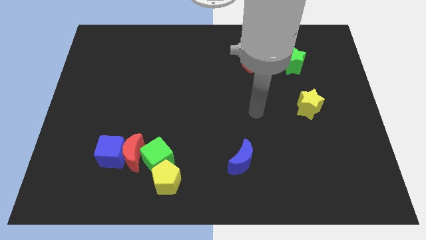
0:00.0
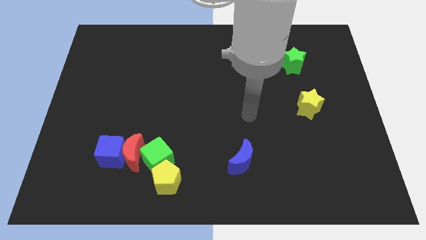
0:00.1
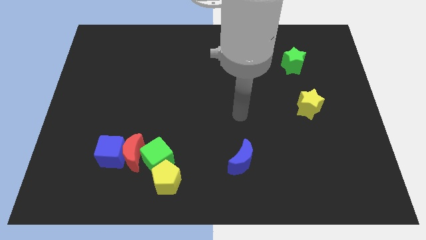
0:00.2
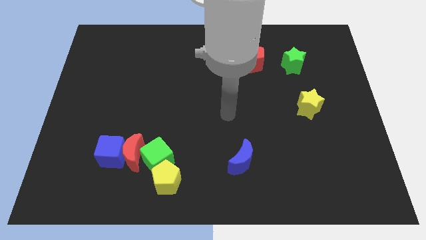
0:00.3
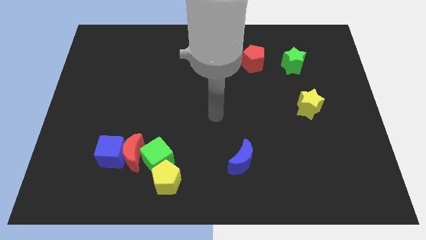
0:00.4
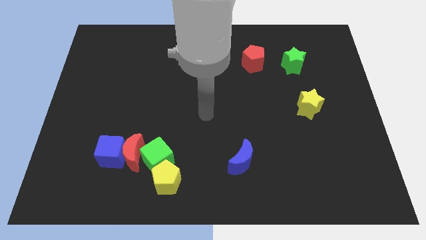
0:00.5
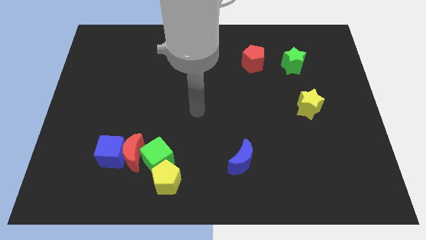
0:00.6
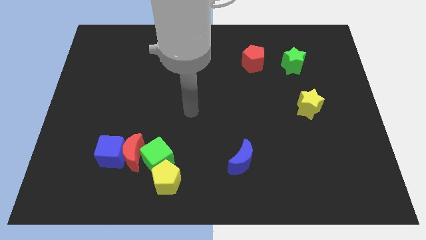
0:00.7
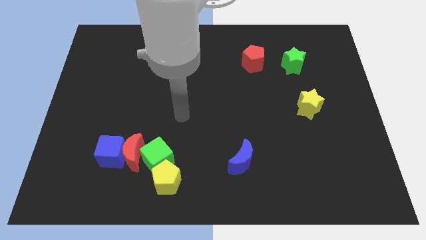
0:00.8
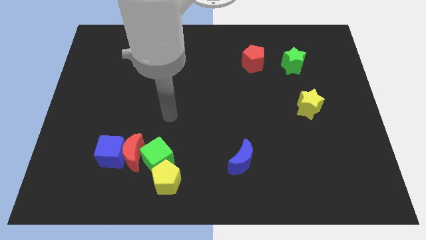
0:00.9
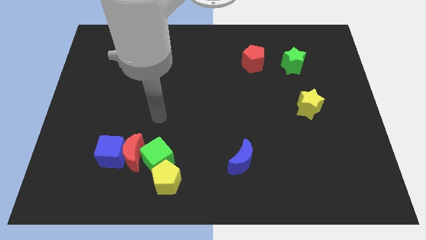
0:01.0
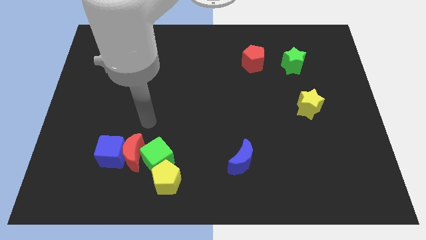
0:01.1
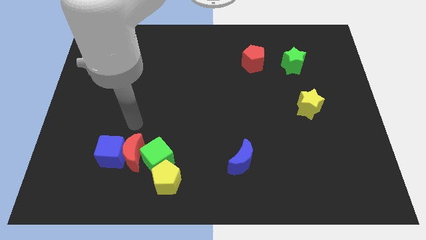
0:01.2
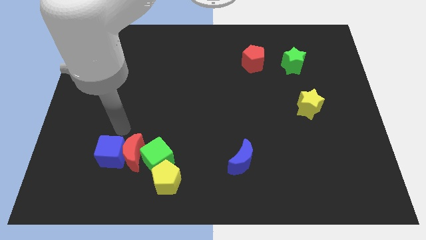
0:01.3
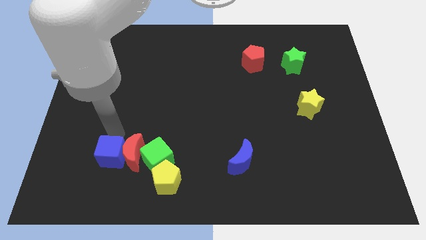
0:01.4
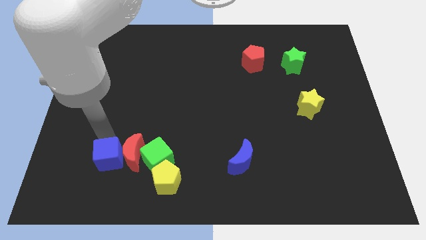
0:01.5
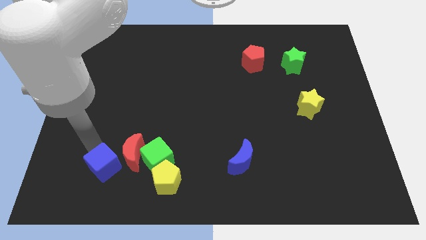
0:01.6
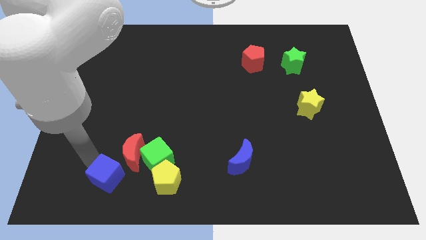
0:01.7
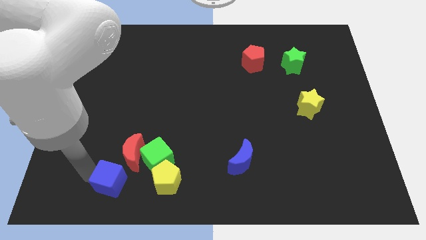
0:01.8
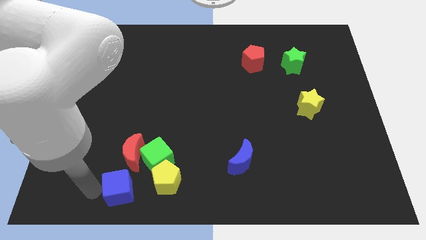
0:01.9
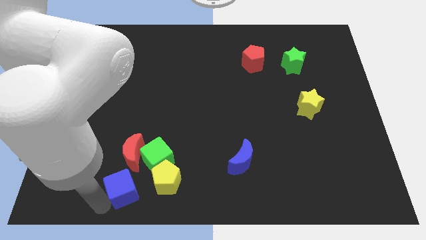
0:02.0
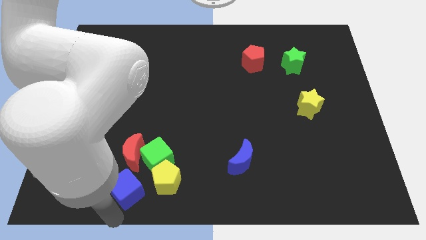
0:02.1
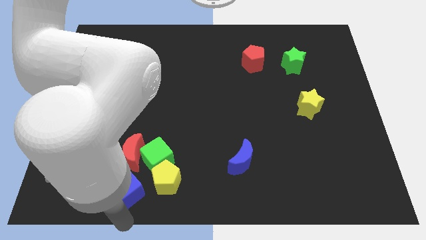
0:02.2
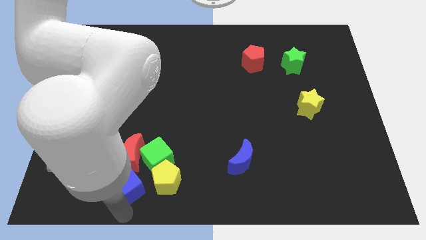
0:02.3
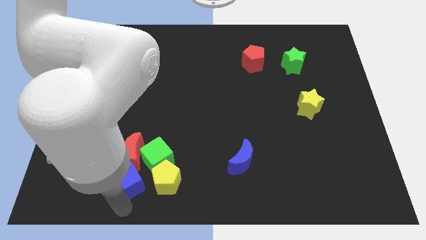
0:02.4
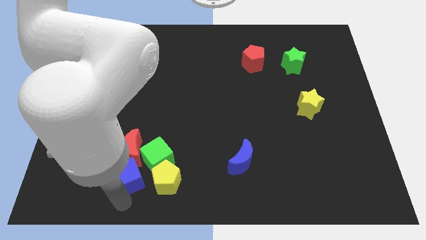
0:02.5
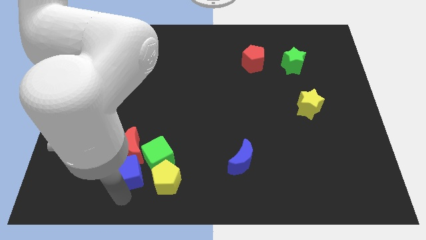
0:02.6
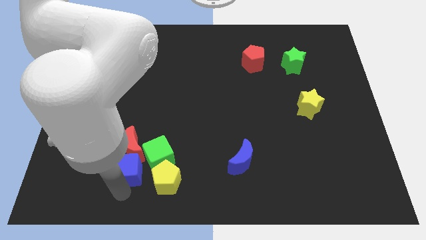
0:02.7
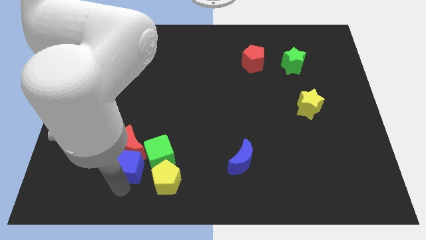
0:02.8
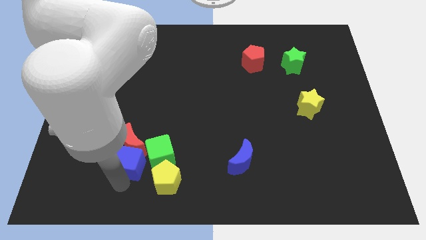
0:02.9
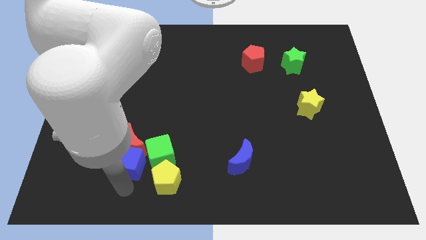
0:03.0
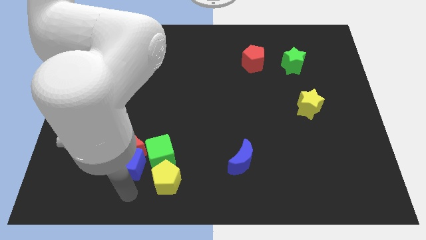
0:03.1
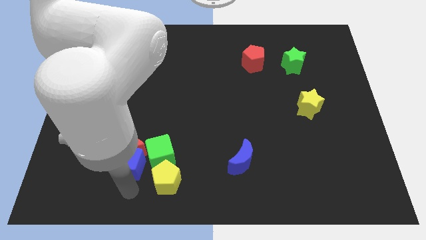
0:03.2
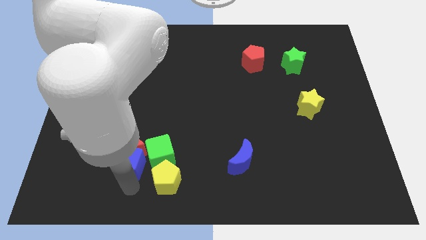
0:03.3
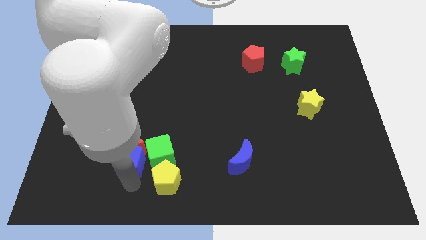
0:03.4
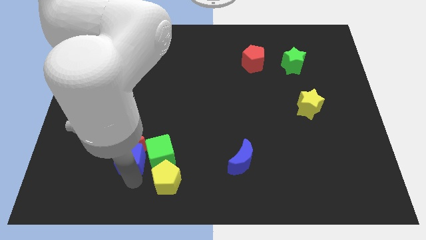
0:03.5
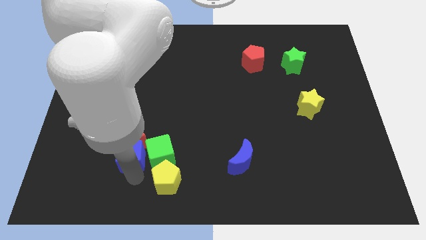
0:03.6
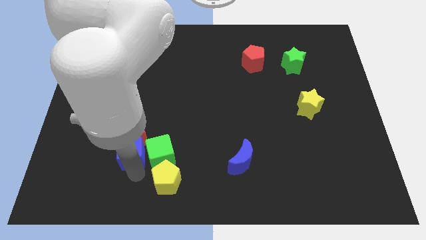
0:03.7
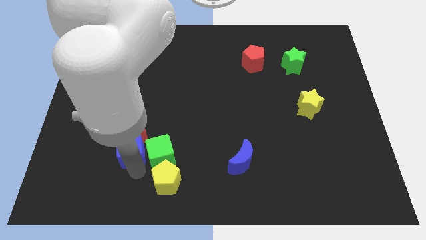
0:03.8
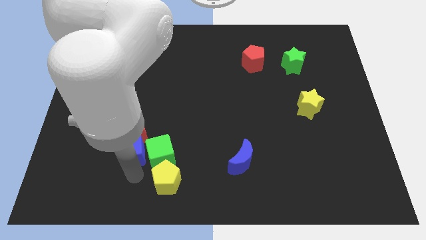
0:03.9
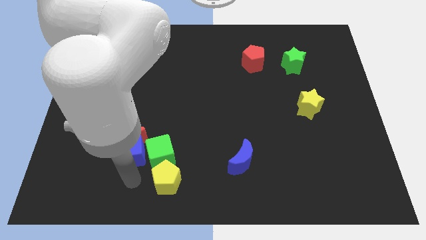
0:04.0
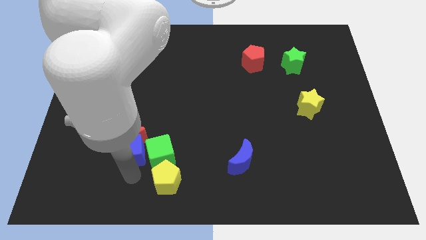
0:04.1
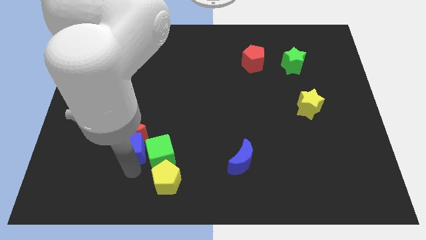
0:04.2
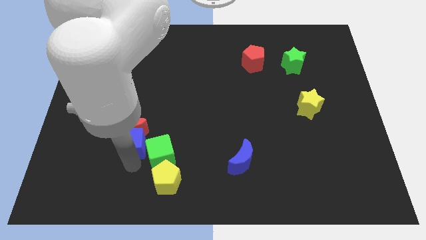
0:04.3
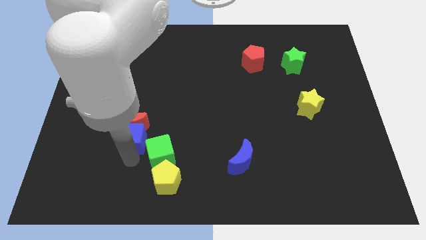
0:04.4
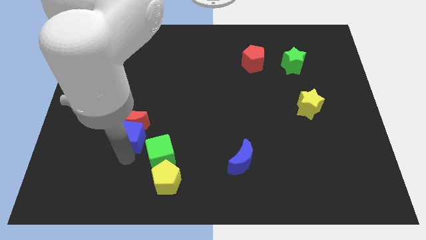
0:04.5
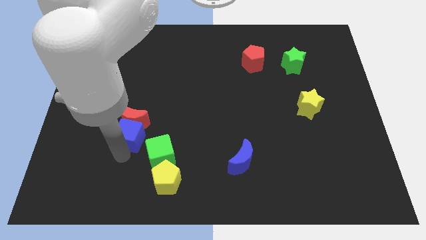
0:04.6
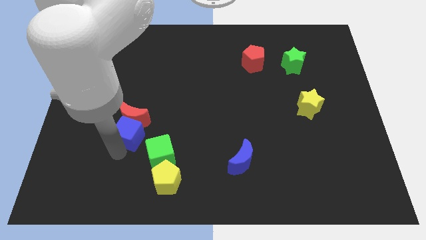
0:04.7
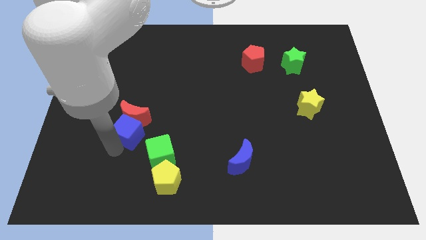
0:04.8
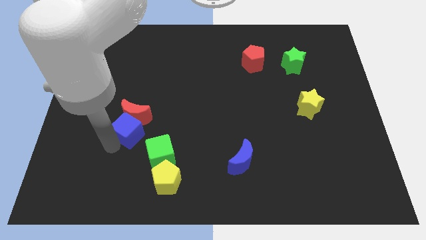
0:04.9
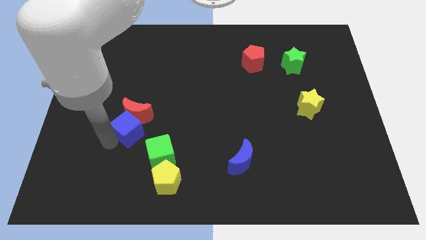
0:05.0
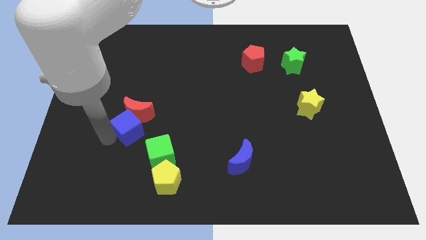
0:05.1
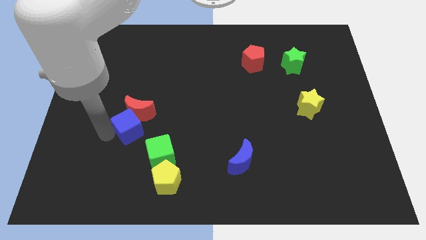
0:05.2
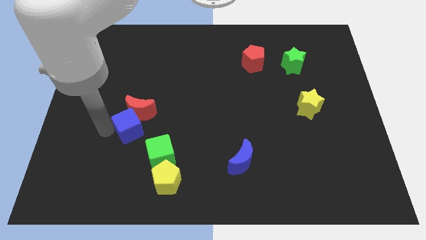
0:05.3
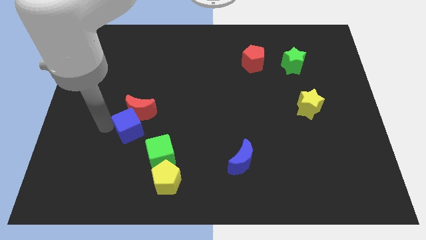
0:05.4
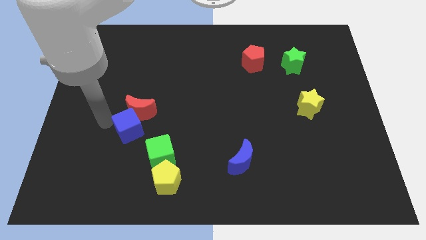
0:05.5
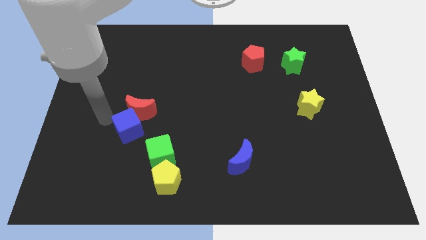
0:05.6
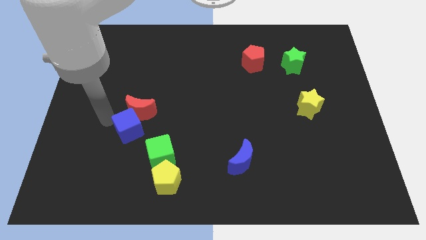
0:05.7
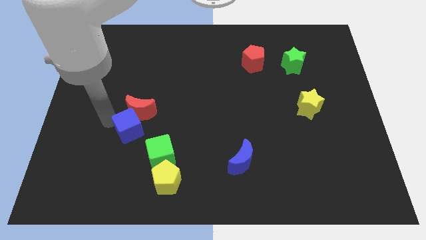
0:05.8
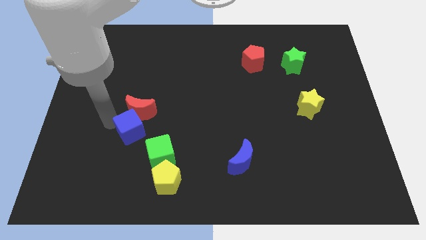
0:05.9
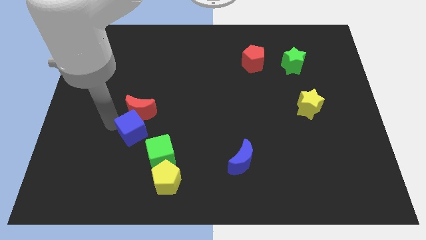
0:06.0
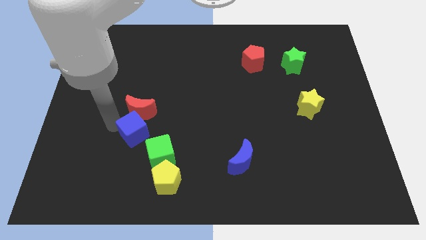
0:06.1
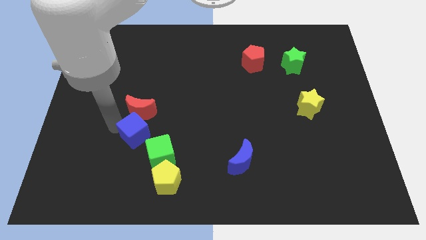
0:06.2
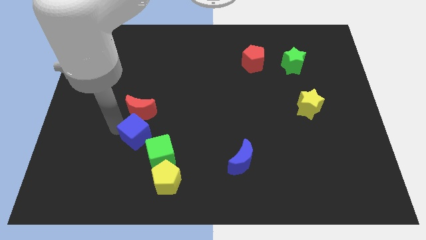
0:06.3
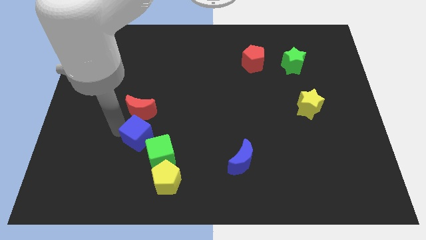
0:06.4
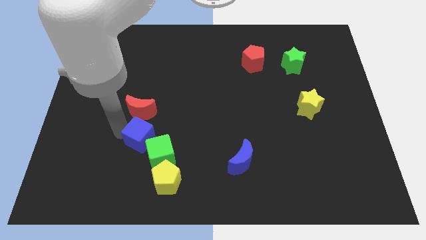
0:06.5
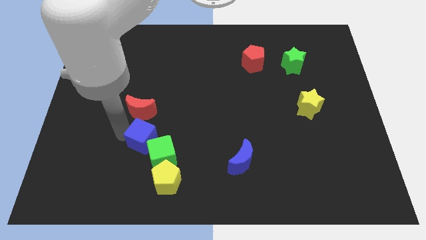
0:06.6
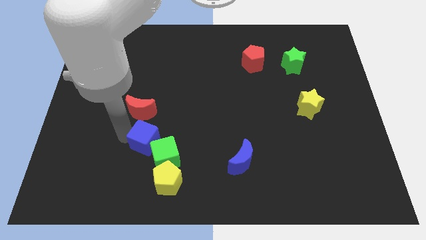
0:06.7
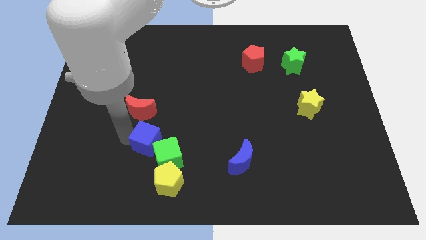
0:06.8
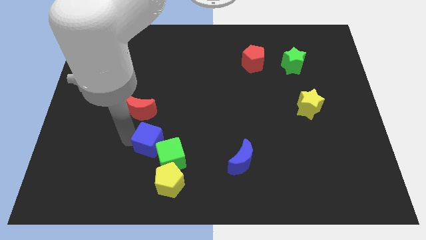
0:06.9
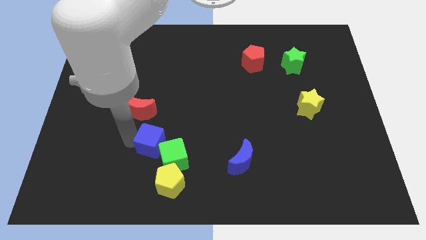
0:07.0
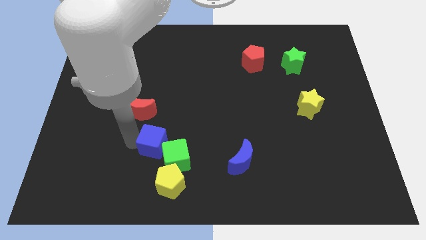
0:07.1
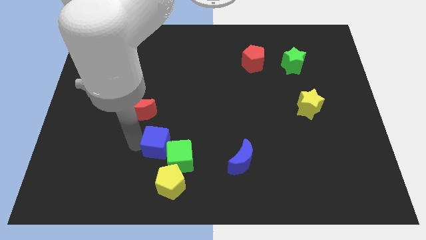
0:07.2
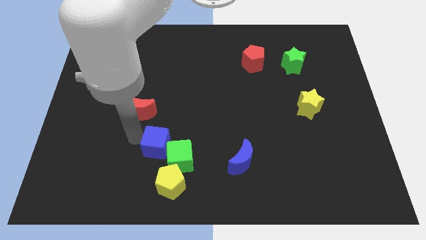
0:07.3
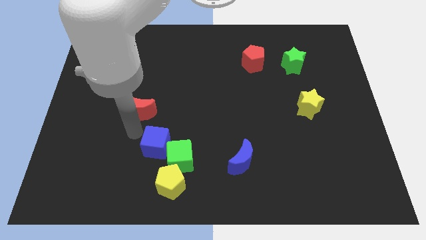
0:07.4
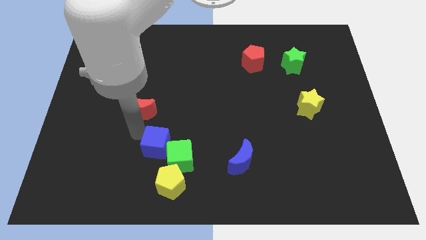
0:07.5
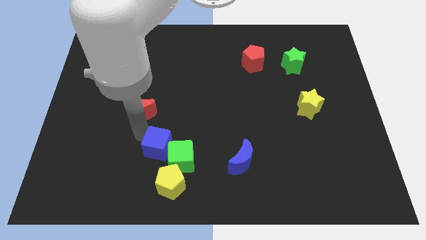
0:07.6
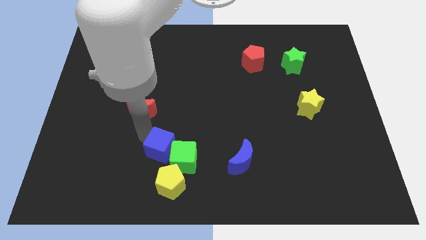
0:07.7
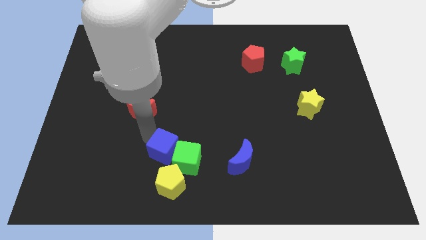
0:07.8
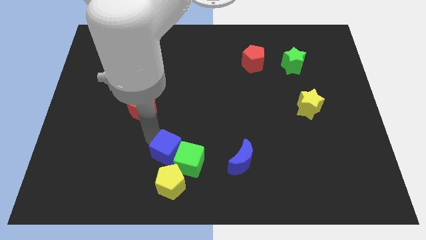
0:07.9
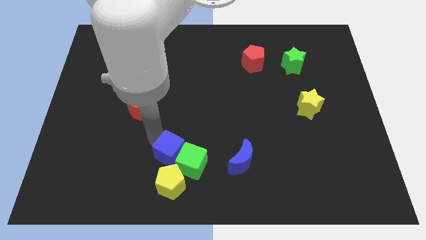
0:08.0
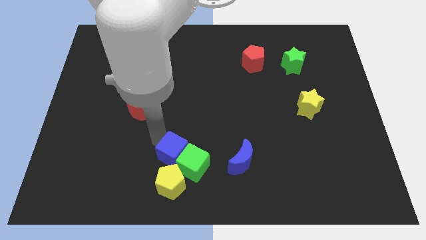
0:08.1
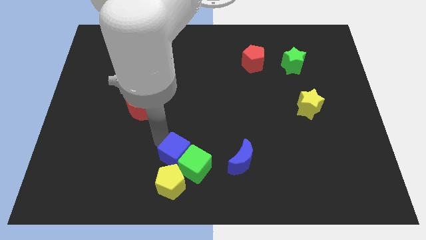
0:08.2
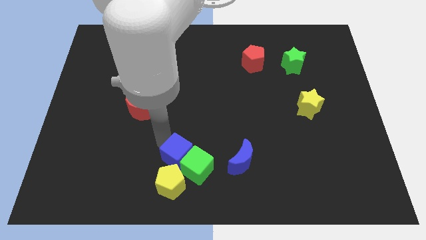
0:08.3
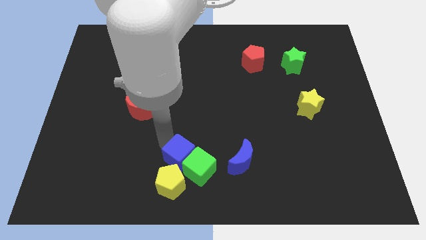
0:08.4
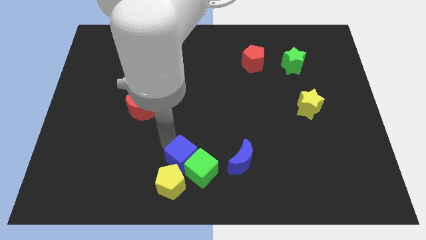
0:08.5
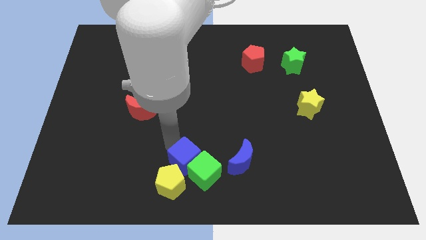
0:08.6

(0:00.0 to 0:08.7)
push the blue cube to the bottom
